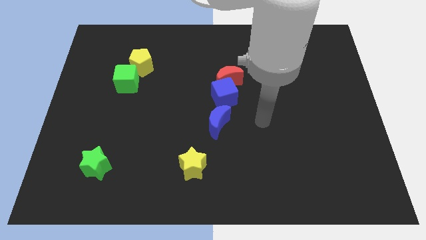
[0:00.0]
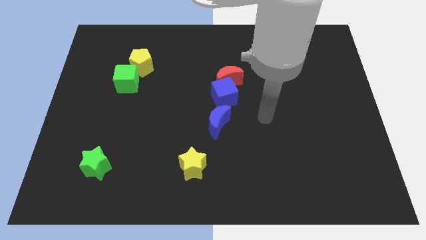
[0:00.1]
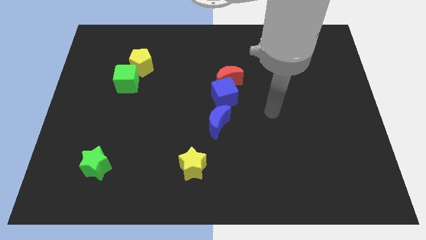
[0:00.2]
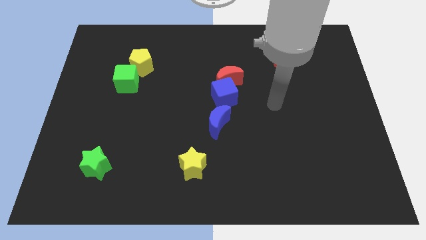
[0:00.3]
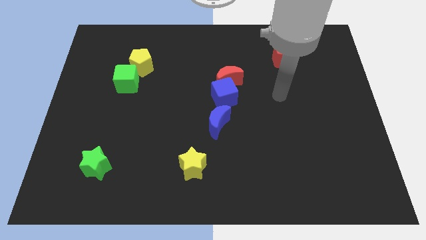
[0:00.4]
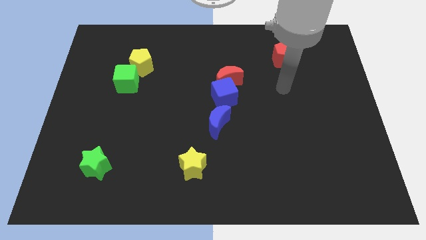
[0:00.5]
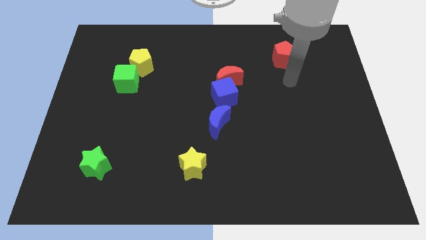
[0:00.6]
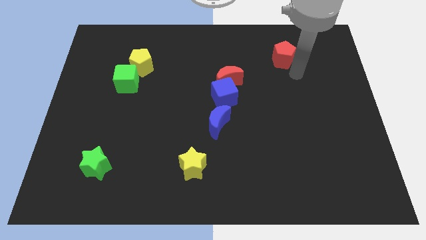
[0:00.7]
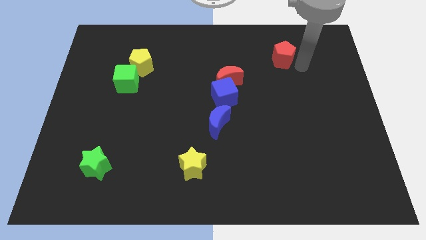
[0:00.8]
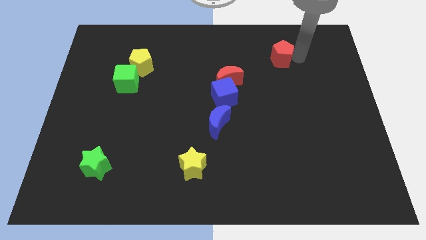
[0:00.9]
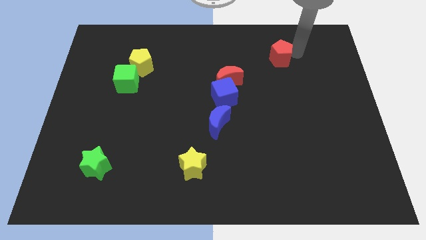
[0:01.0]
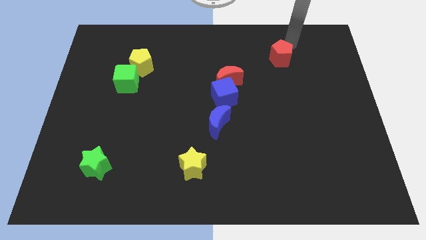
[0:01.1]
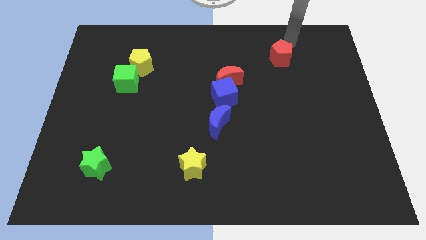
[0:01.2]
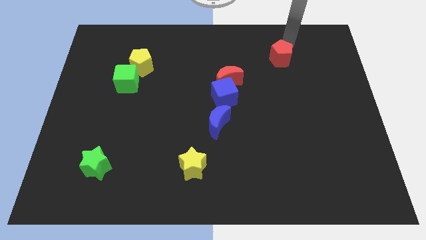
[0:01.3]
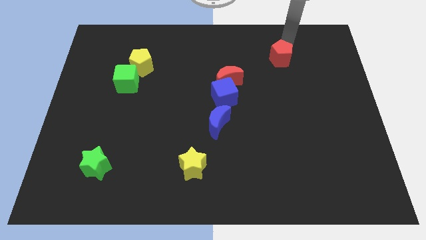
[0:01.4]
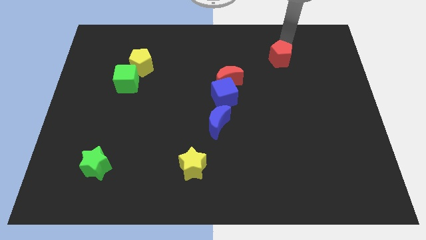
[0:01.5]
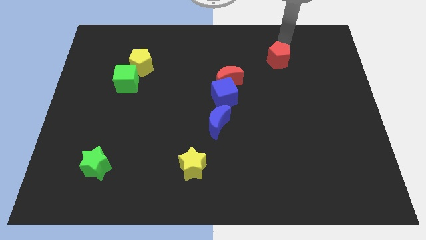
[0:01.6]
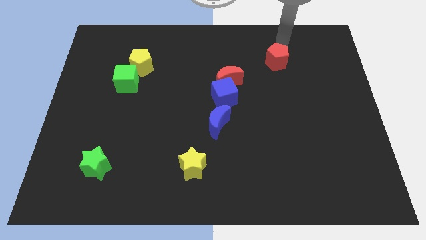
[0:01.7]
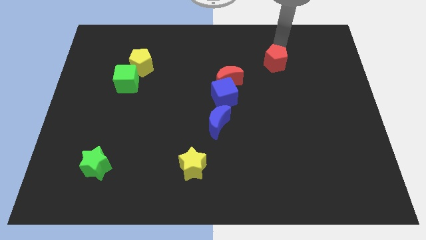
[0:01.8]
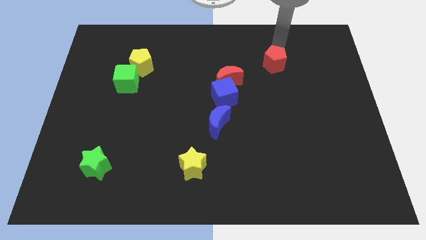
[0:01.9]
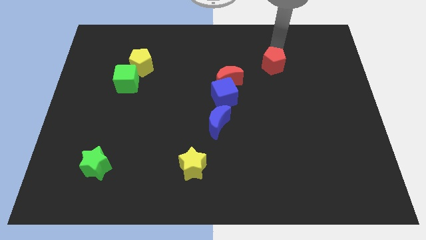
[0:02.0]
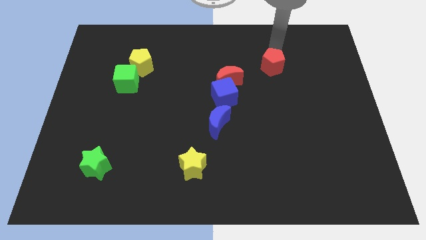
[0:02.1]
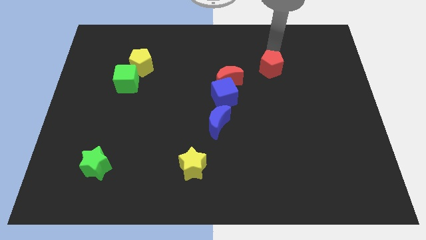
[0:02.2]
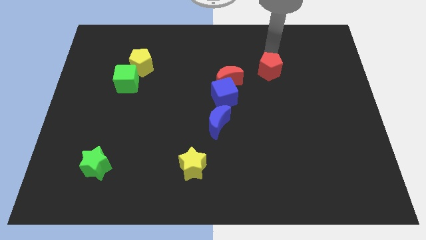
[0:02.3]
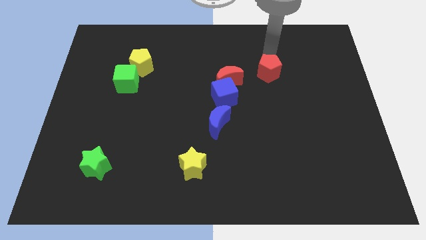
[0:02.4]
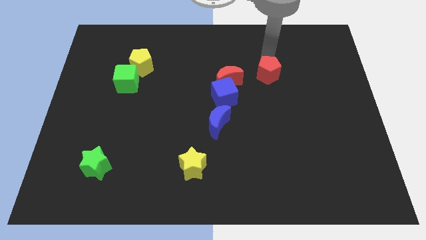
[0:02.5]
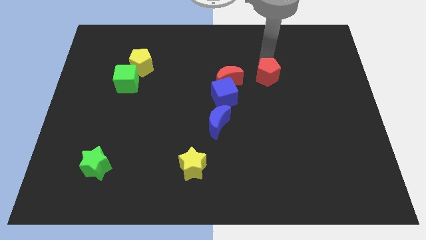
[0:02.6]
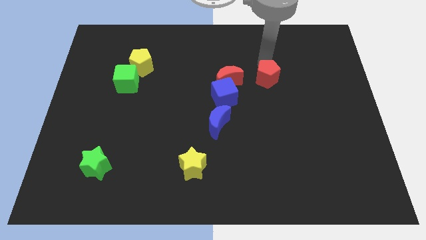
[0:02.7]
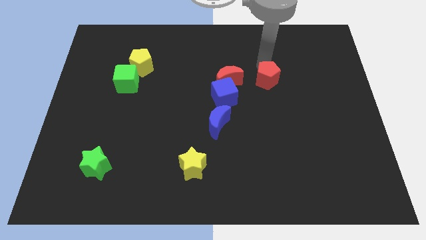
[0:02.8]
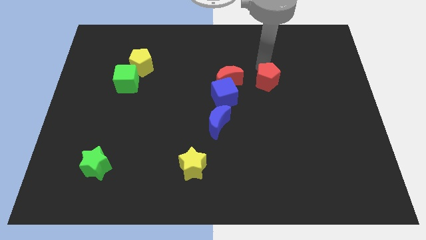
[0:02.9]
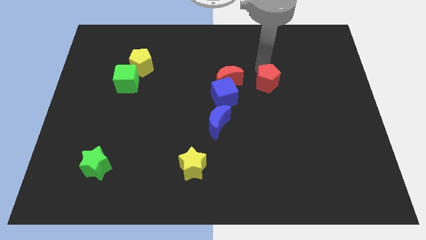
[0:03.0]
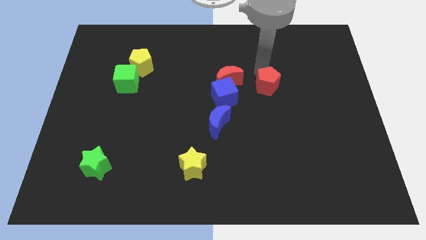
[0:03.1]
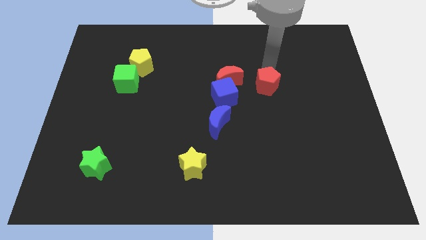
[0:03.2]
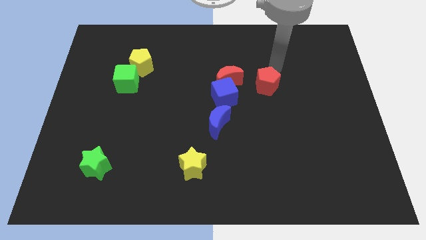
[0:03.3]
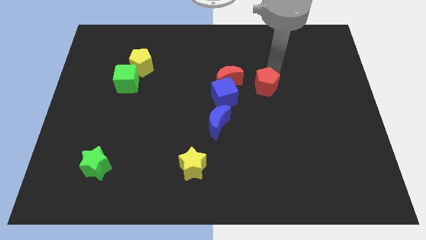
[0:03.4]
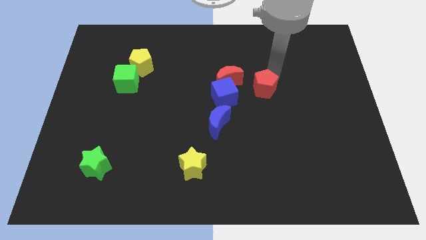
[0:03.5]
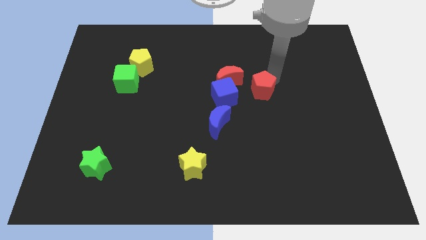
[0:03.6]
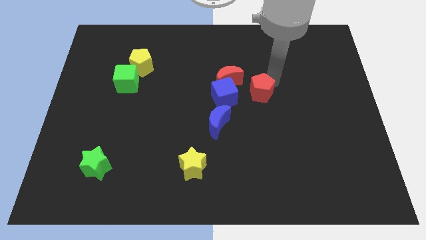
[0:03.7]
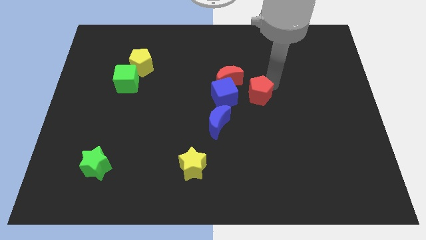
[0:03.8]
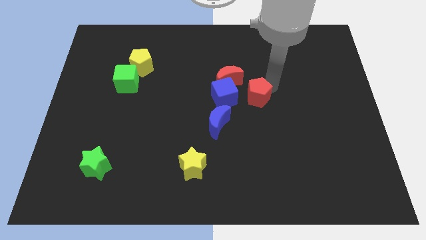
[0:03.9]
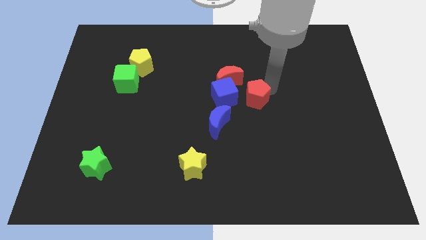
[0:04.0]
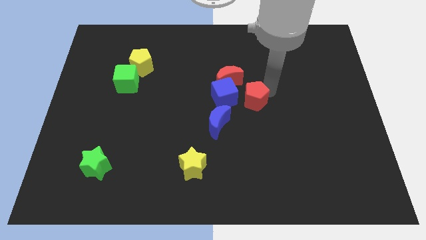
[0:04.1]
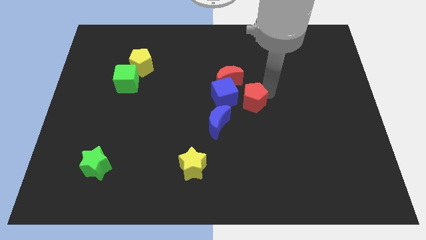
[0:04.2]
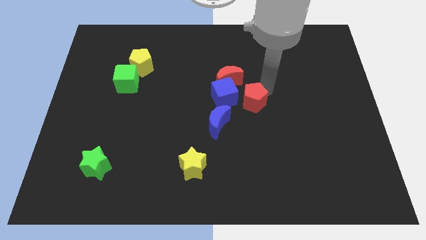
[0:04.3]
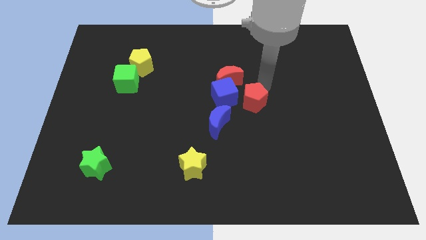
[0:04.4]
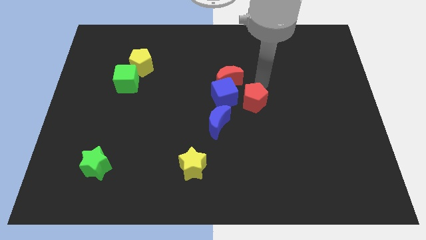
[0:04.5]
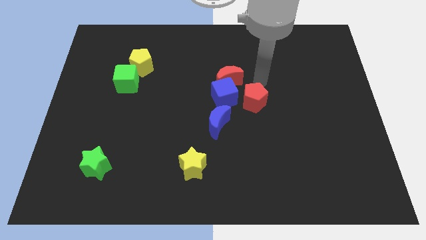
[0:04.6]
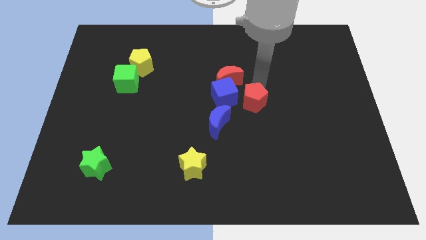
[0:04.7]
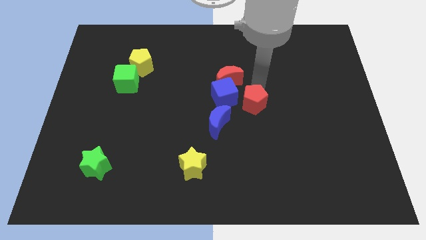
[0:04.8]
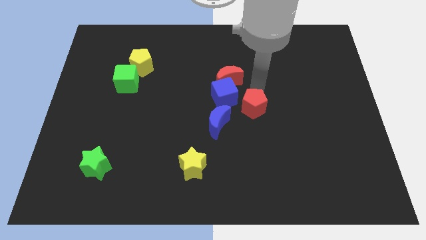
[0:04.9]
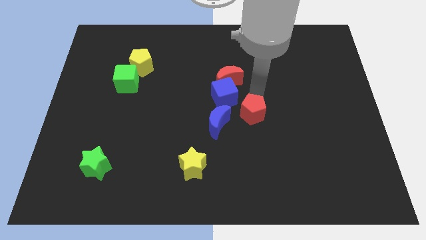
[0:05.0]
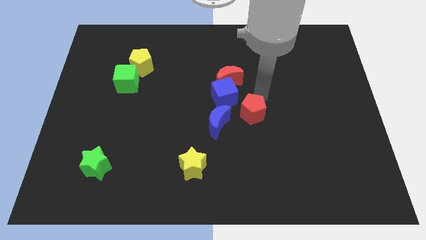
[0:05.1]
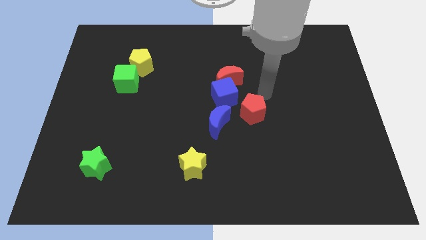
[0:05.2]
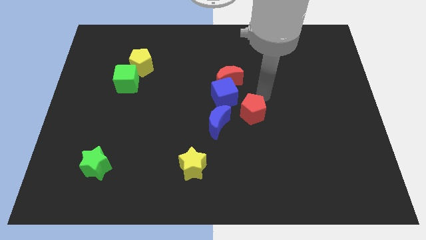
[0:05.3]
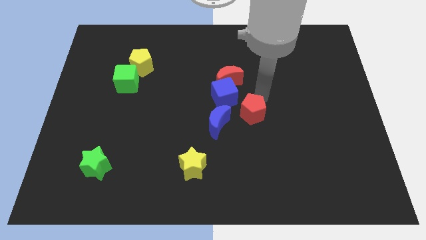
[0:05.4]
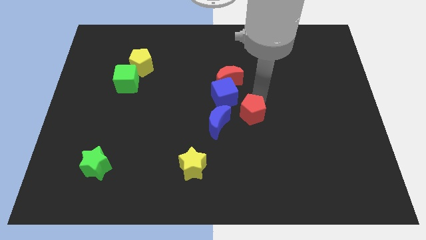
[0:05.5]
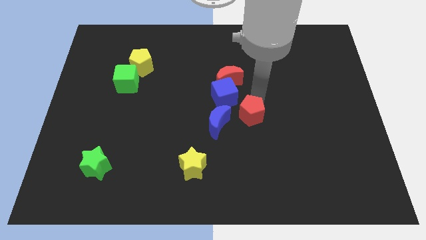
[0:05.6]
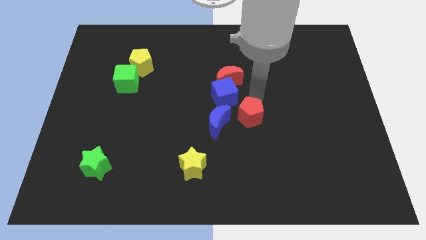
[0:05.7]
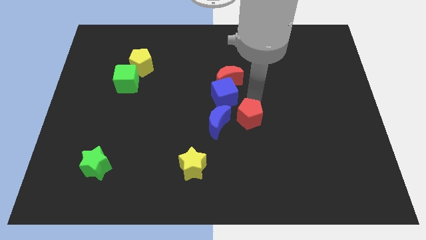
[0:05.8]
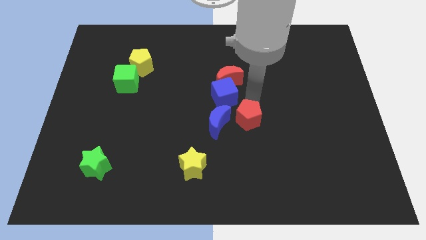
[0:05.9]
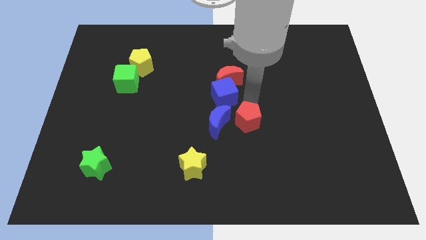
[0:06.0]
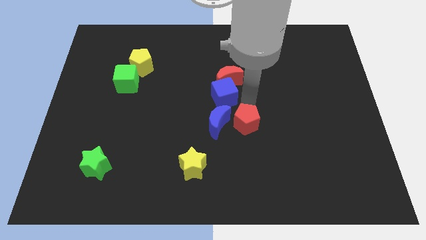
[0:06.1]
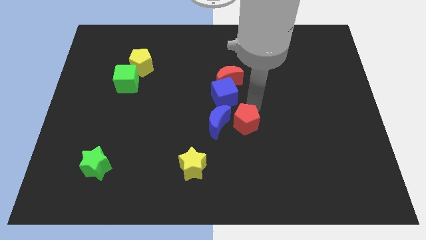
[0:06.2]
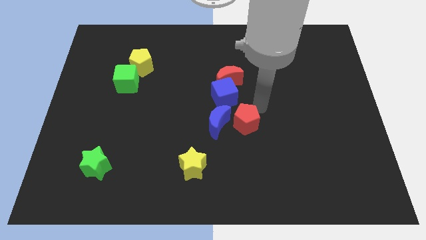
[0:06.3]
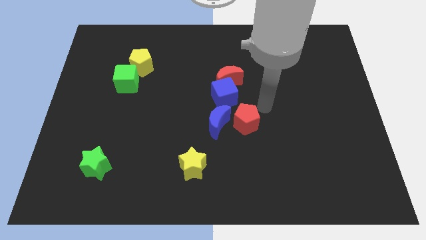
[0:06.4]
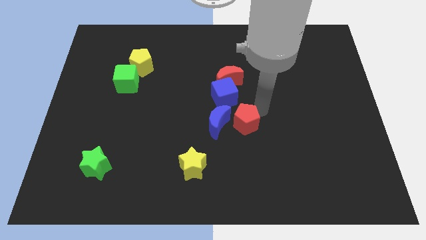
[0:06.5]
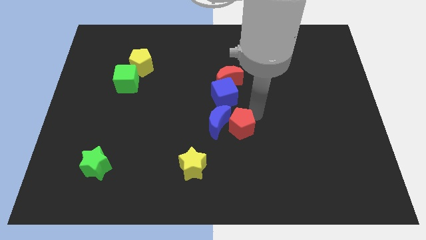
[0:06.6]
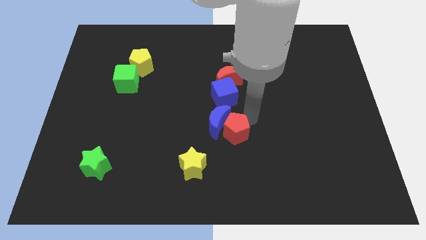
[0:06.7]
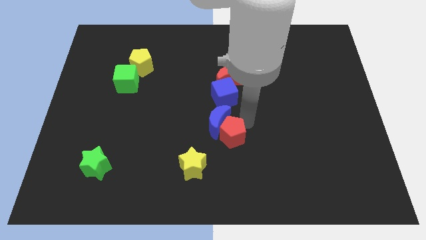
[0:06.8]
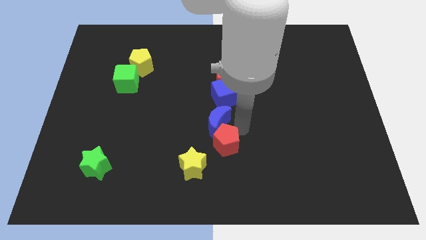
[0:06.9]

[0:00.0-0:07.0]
move the red pentagon to the bottom left of the blue moon

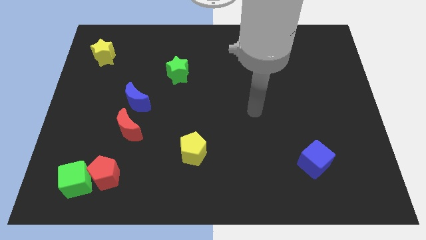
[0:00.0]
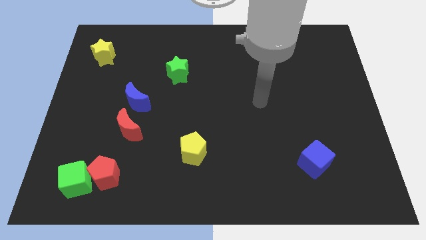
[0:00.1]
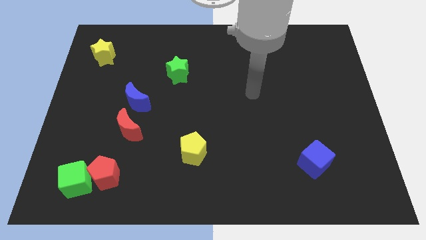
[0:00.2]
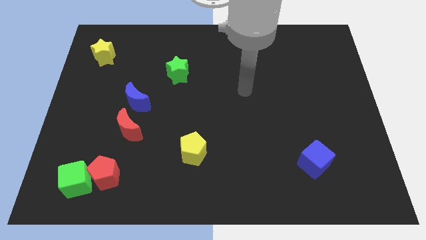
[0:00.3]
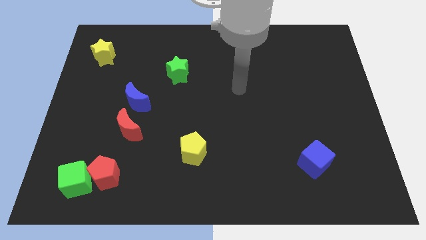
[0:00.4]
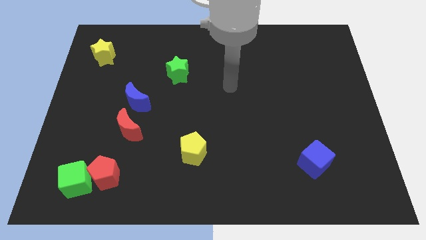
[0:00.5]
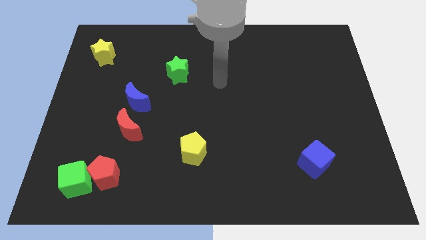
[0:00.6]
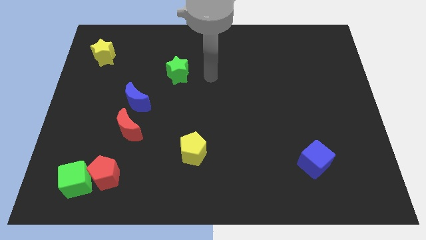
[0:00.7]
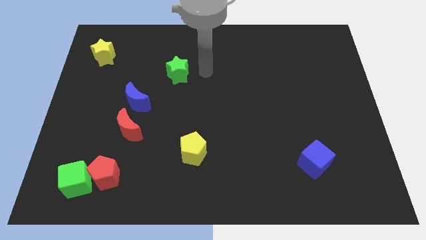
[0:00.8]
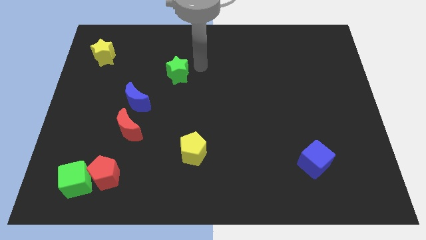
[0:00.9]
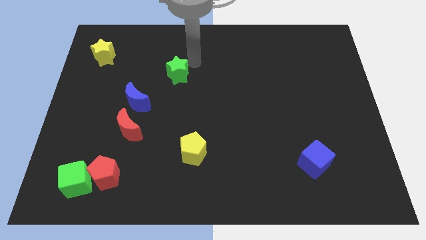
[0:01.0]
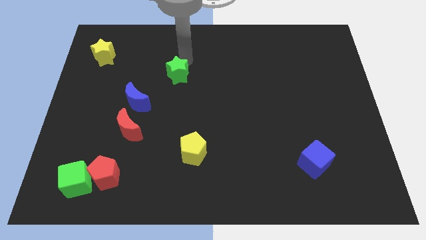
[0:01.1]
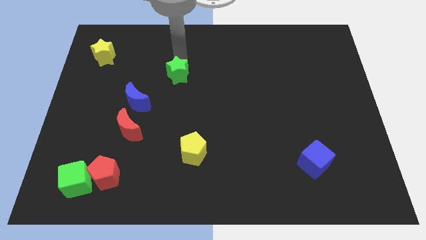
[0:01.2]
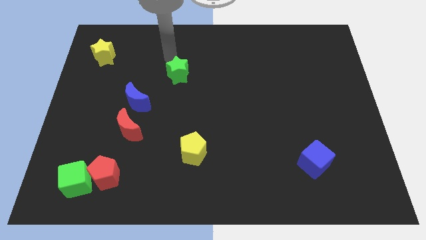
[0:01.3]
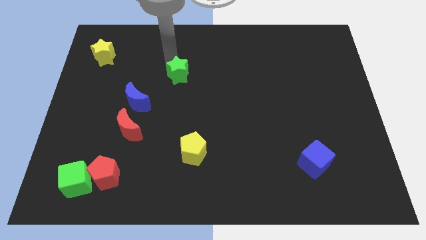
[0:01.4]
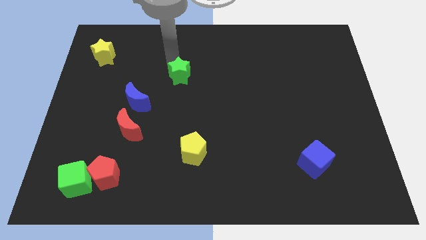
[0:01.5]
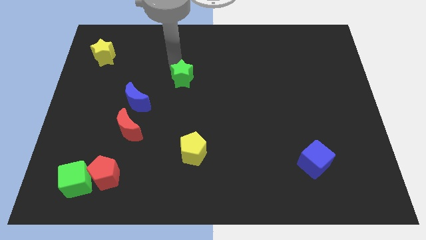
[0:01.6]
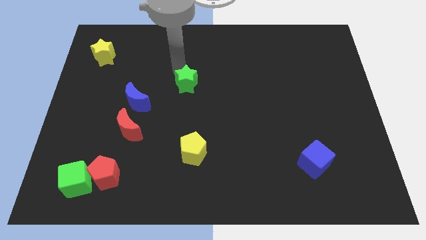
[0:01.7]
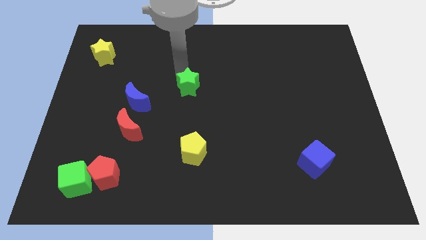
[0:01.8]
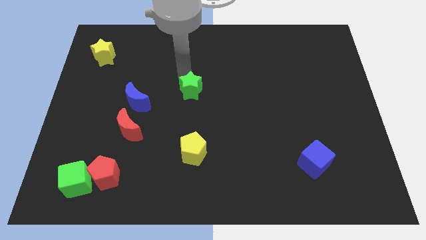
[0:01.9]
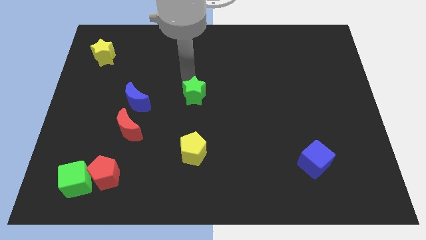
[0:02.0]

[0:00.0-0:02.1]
slide the green star to the top of the yellow pentagon
